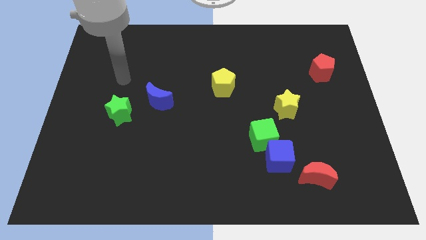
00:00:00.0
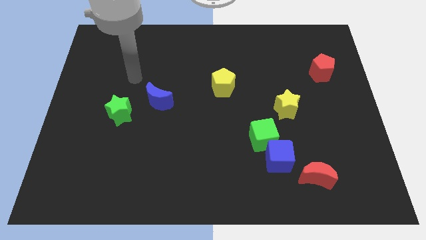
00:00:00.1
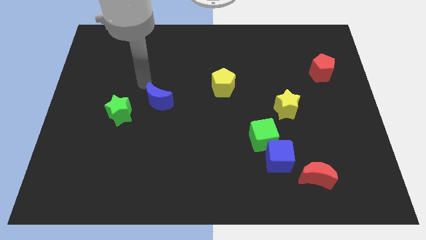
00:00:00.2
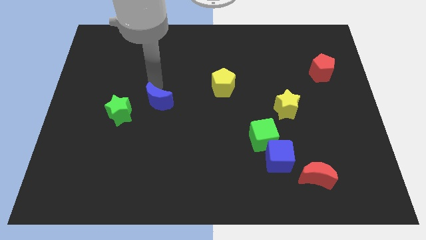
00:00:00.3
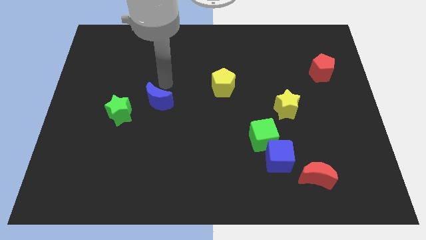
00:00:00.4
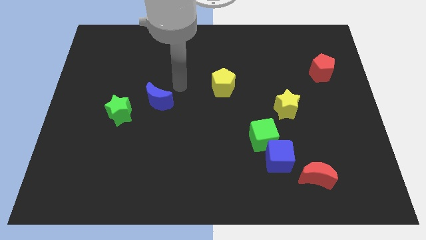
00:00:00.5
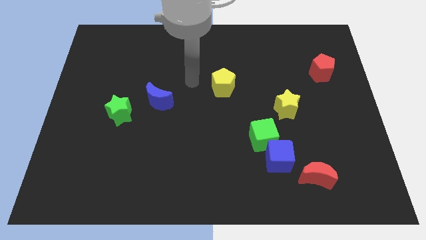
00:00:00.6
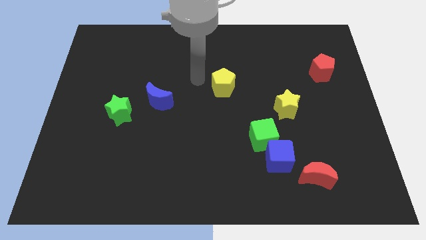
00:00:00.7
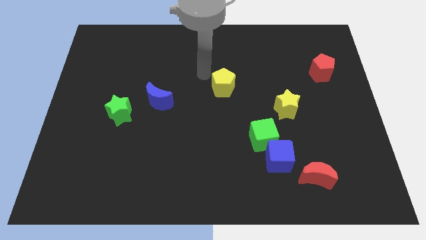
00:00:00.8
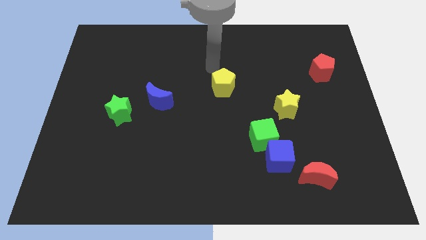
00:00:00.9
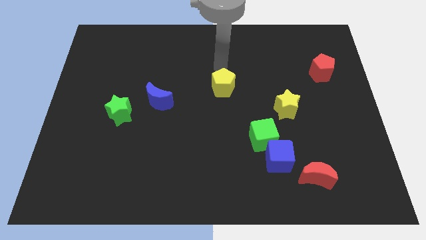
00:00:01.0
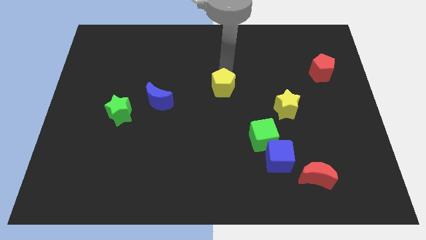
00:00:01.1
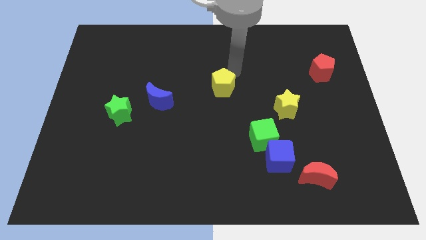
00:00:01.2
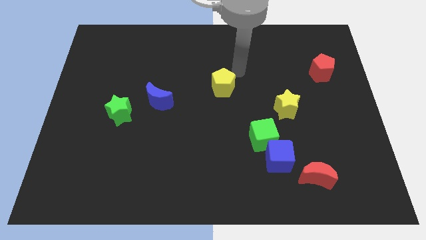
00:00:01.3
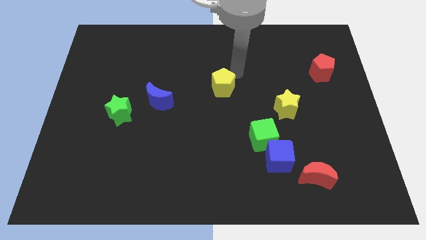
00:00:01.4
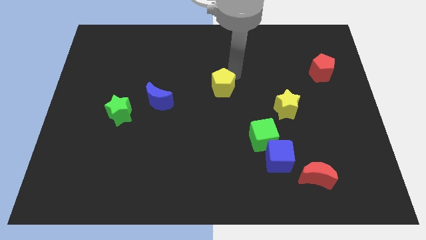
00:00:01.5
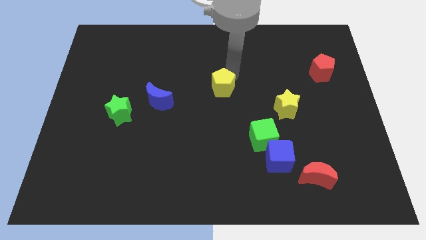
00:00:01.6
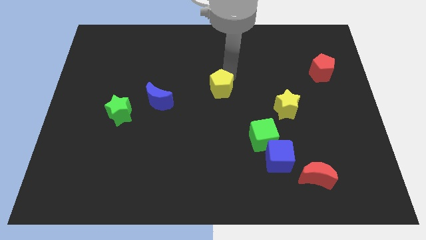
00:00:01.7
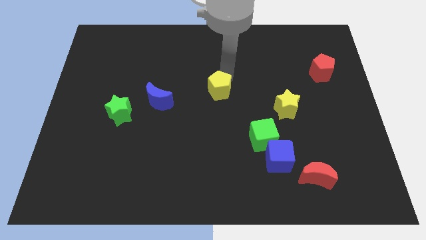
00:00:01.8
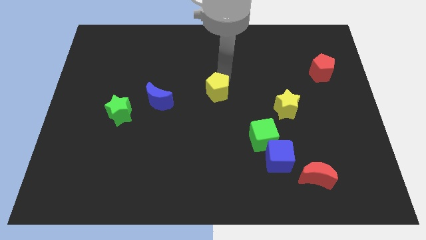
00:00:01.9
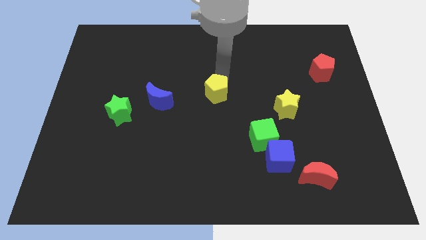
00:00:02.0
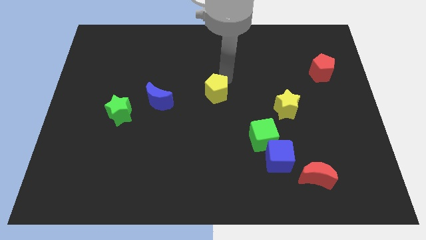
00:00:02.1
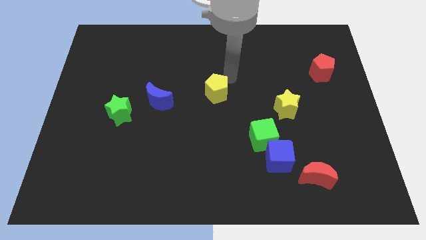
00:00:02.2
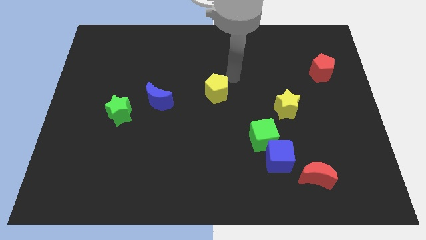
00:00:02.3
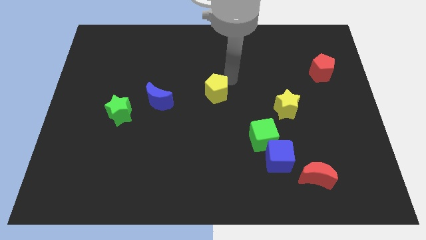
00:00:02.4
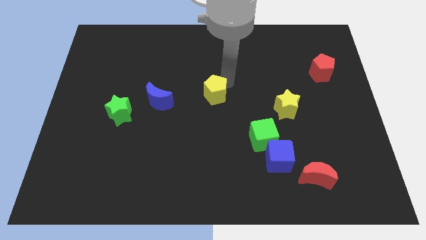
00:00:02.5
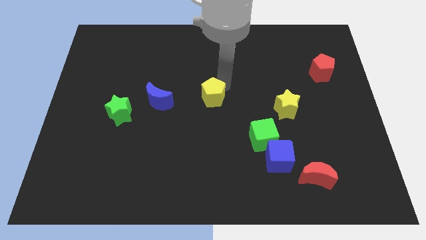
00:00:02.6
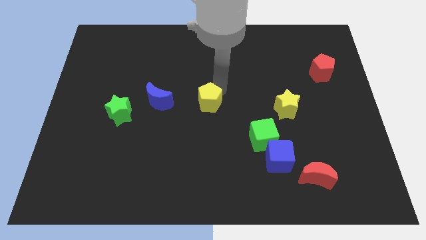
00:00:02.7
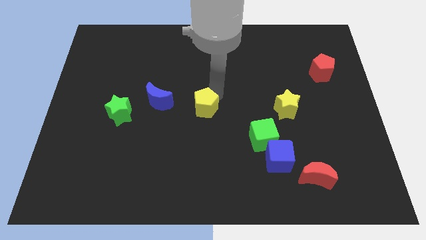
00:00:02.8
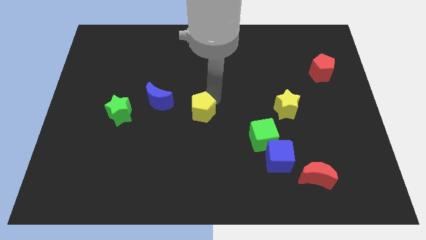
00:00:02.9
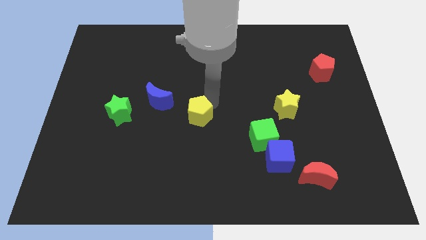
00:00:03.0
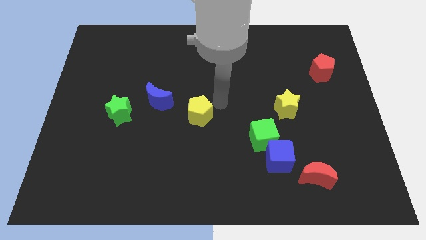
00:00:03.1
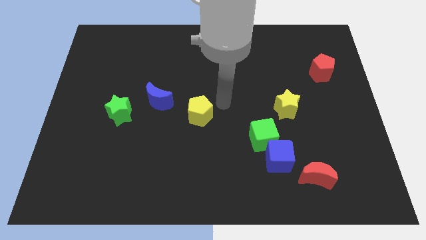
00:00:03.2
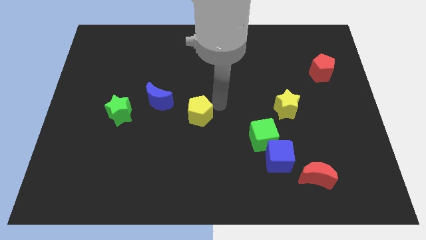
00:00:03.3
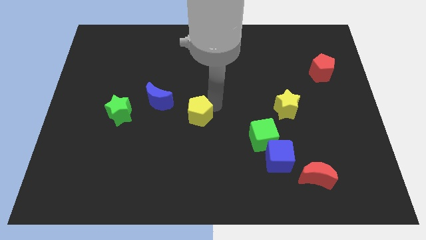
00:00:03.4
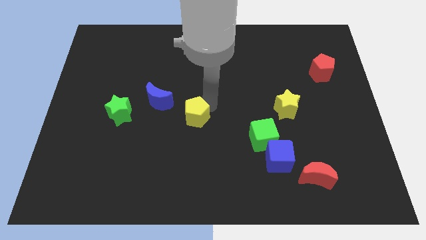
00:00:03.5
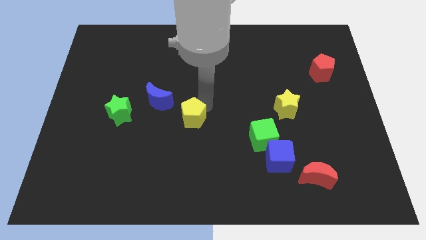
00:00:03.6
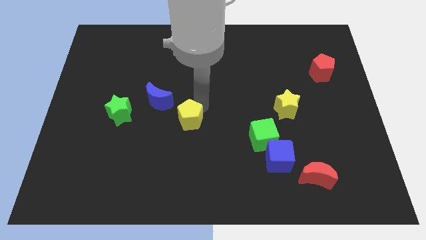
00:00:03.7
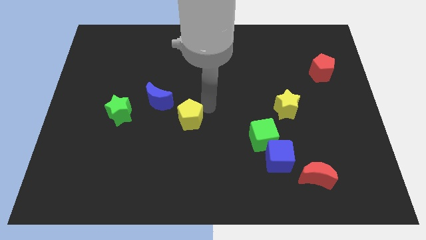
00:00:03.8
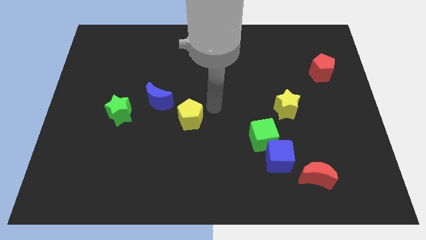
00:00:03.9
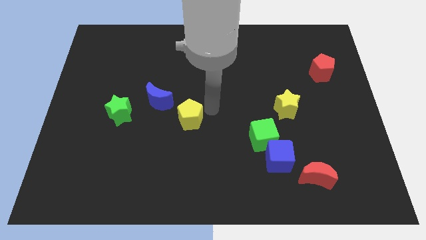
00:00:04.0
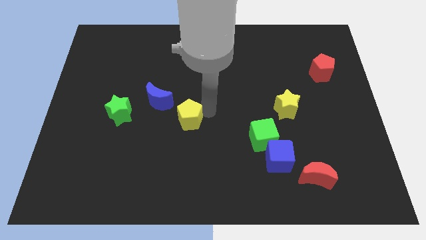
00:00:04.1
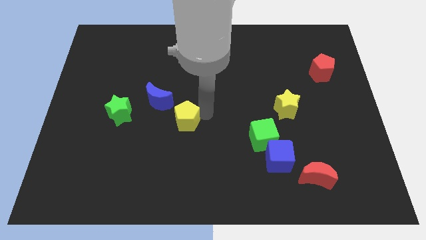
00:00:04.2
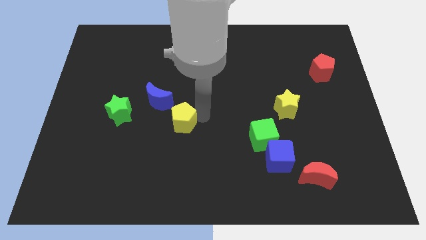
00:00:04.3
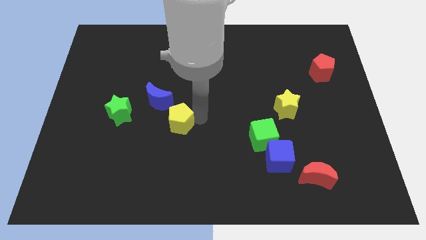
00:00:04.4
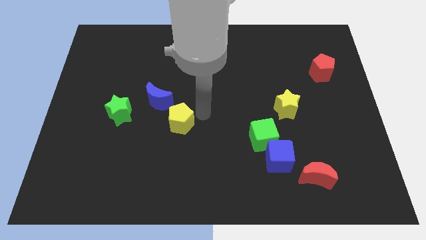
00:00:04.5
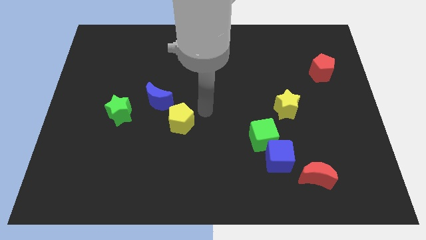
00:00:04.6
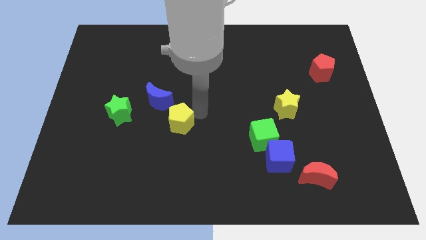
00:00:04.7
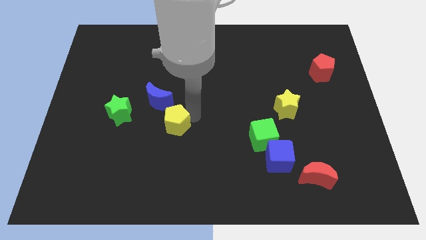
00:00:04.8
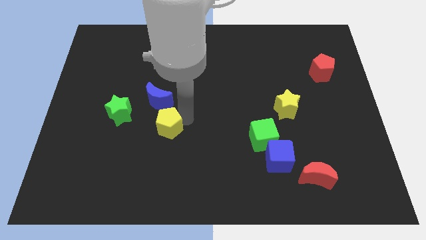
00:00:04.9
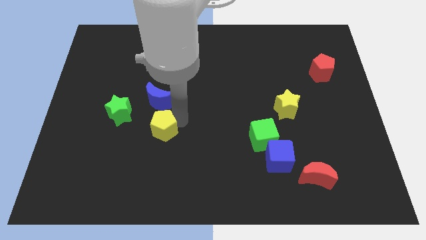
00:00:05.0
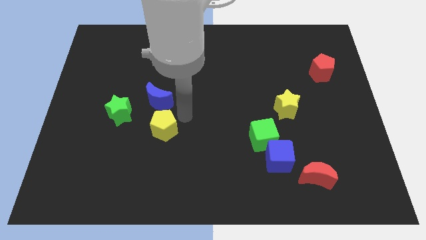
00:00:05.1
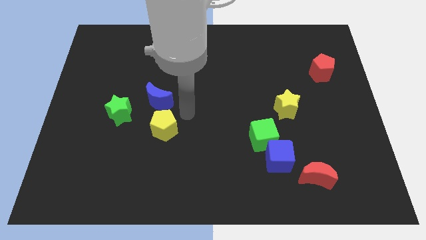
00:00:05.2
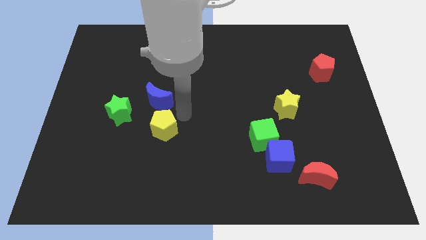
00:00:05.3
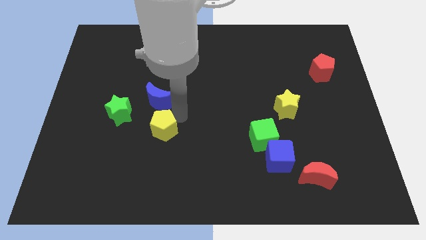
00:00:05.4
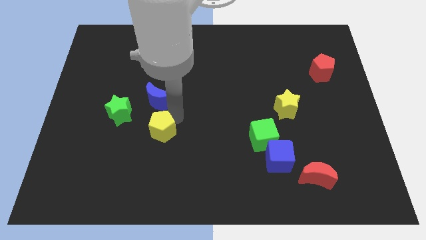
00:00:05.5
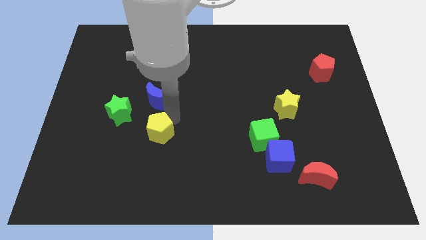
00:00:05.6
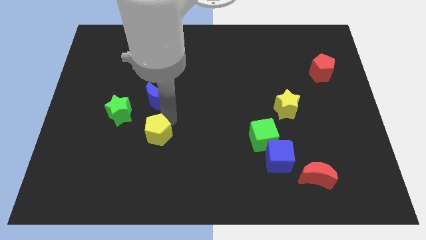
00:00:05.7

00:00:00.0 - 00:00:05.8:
slide the yellow pentagon downwards and left

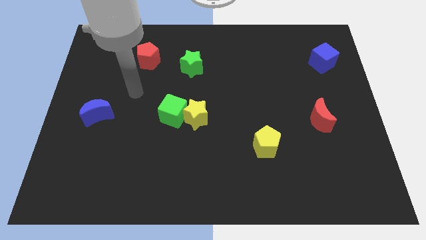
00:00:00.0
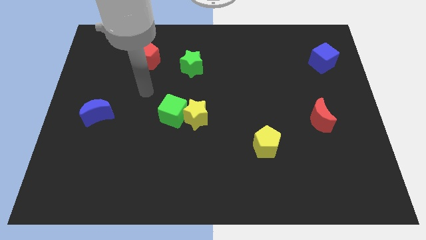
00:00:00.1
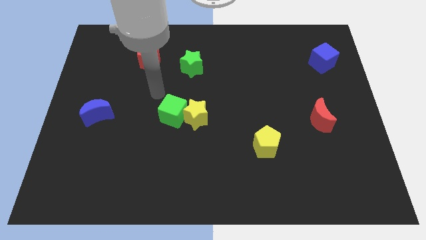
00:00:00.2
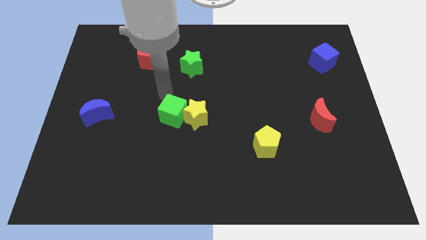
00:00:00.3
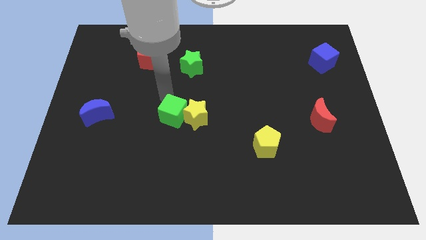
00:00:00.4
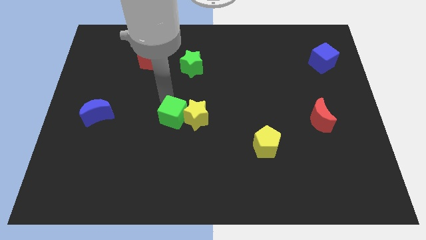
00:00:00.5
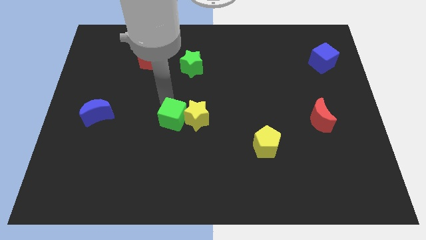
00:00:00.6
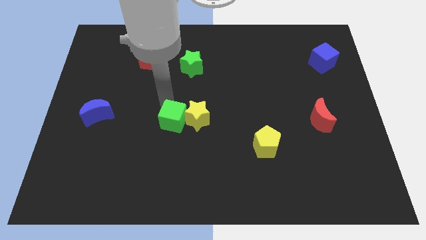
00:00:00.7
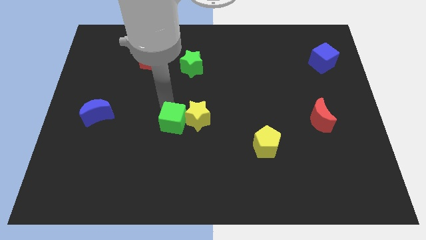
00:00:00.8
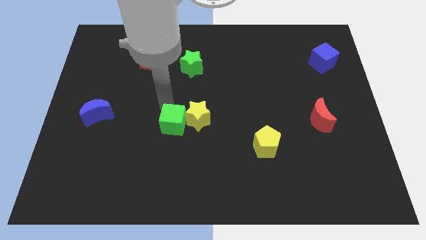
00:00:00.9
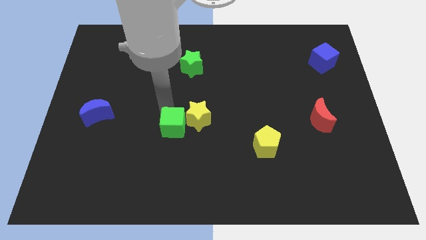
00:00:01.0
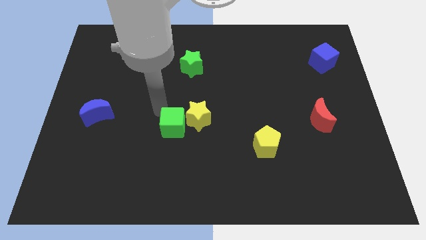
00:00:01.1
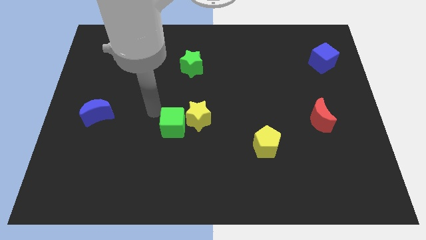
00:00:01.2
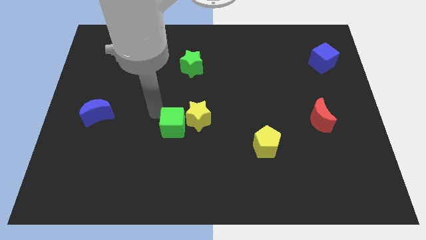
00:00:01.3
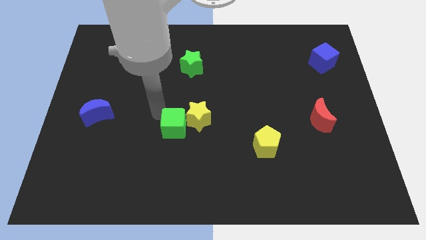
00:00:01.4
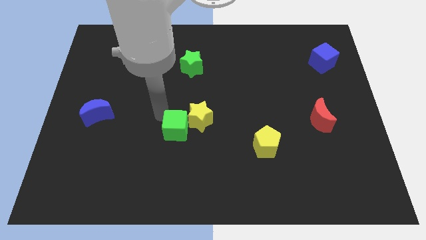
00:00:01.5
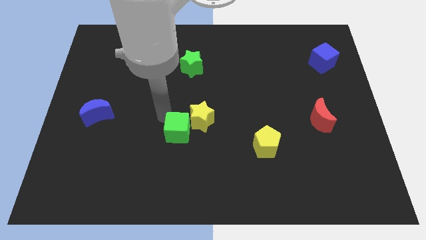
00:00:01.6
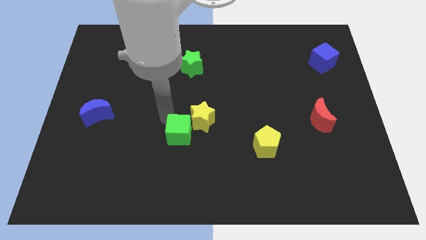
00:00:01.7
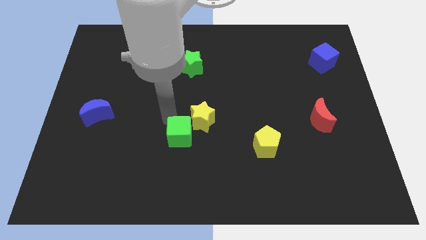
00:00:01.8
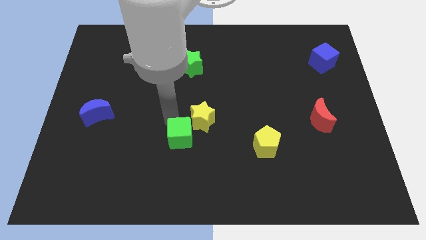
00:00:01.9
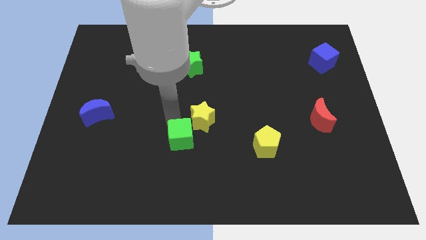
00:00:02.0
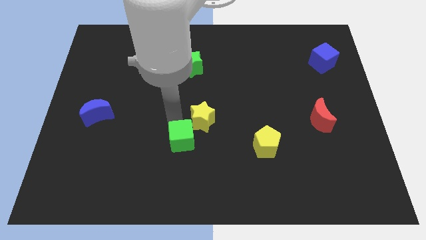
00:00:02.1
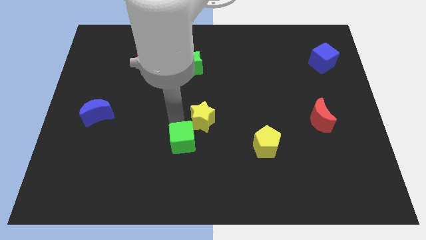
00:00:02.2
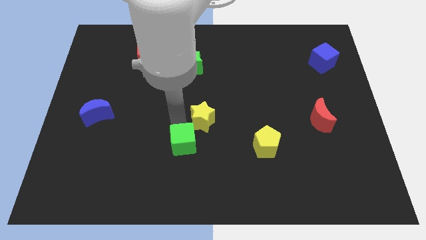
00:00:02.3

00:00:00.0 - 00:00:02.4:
move the green cube down and right diagonally a little
